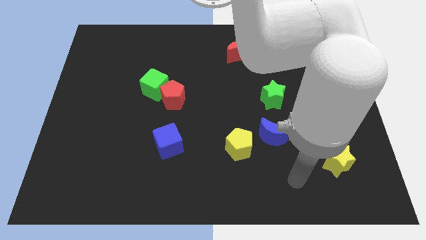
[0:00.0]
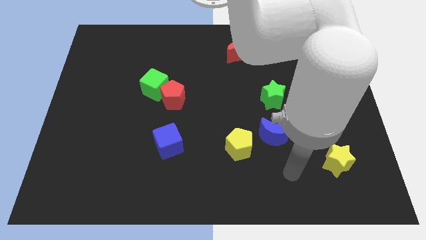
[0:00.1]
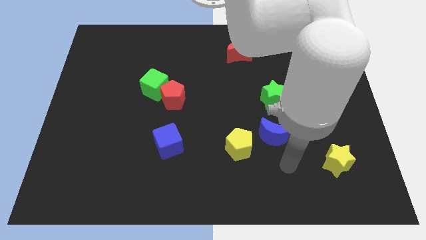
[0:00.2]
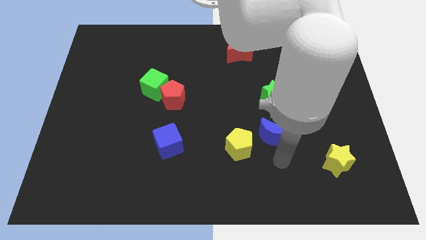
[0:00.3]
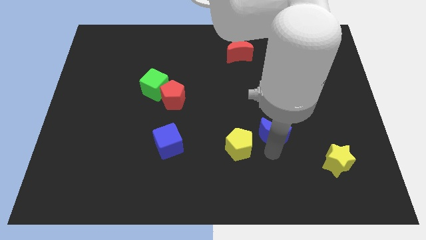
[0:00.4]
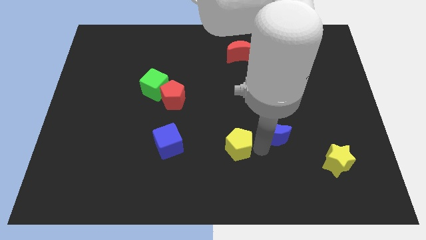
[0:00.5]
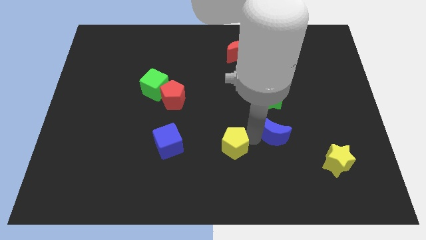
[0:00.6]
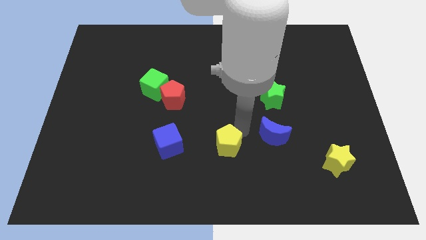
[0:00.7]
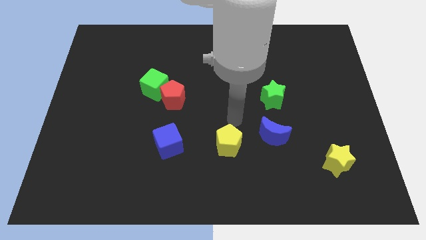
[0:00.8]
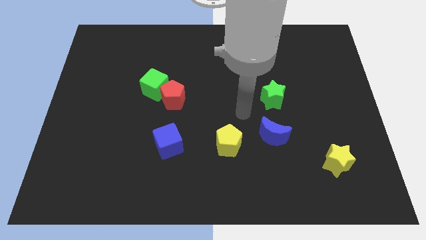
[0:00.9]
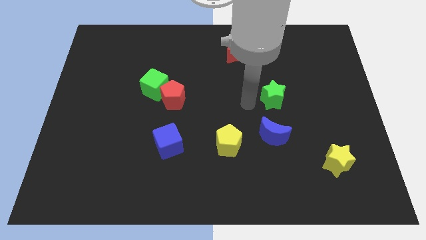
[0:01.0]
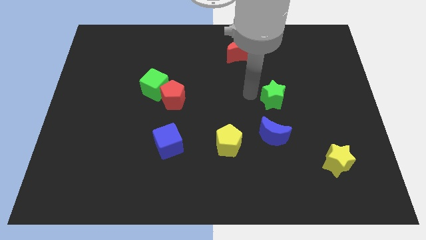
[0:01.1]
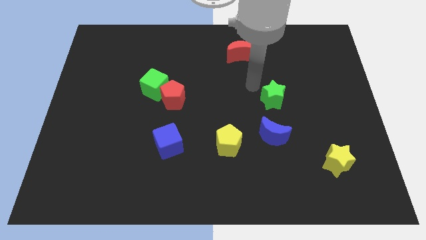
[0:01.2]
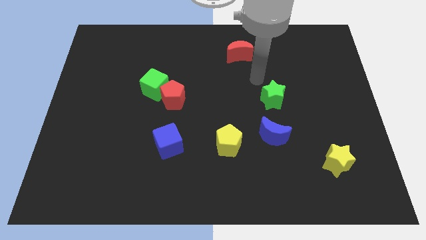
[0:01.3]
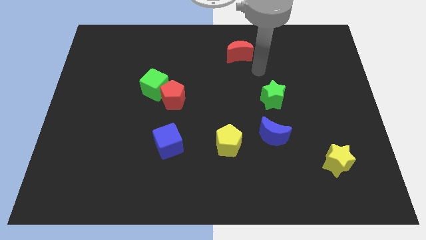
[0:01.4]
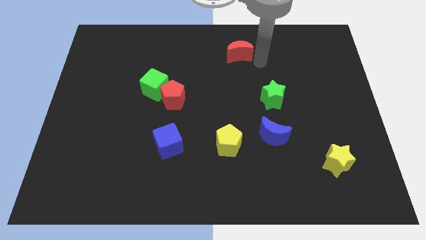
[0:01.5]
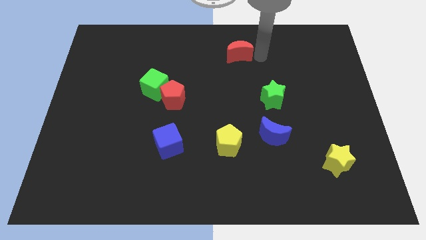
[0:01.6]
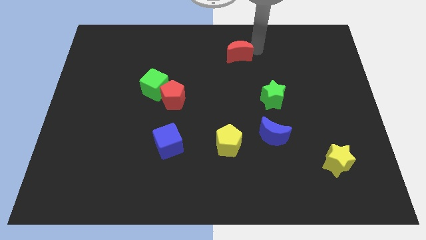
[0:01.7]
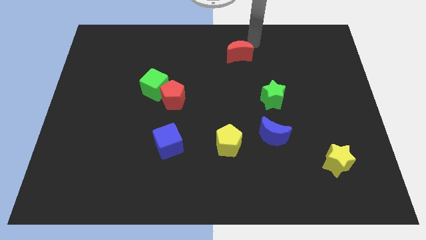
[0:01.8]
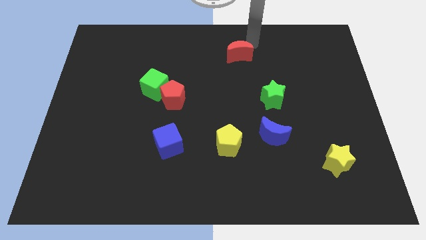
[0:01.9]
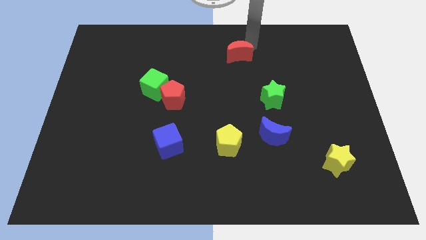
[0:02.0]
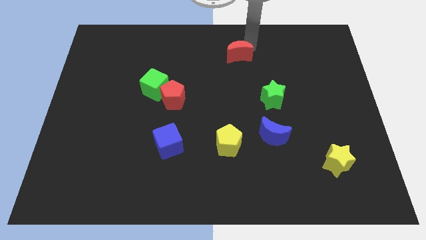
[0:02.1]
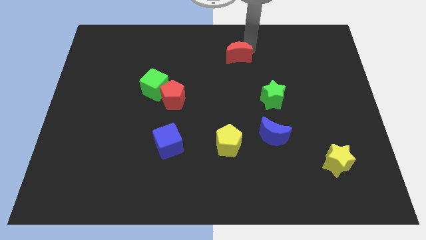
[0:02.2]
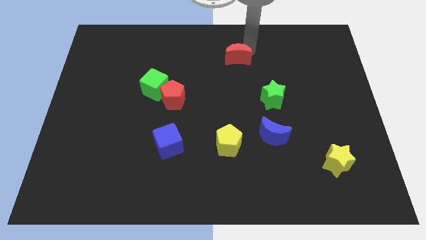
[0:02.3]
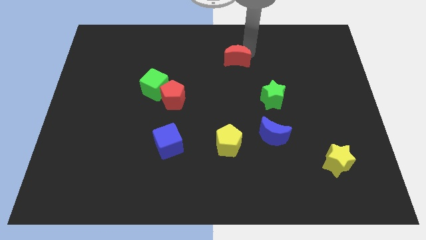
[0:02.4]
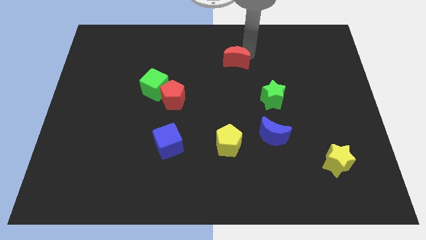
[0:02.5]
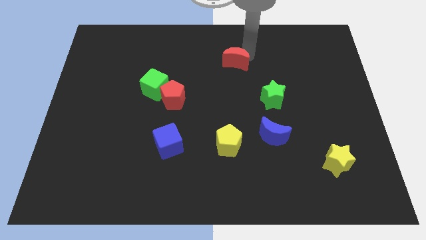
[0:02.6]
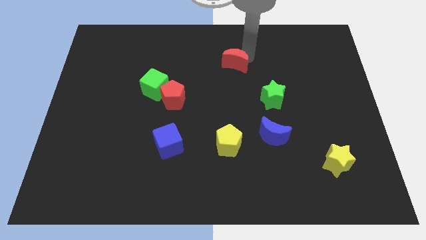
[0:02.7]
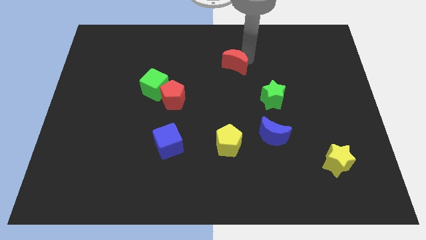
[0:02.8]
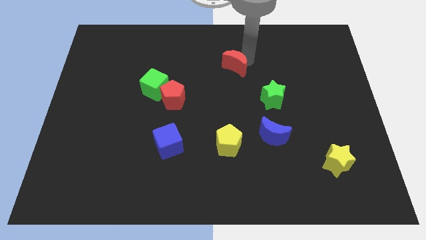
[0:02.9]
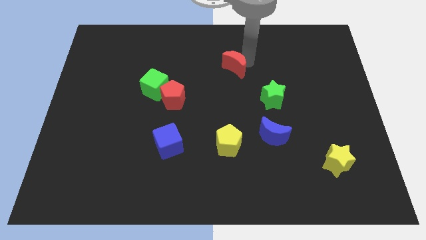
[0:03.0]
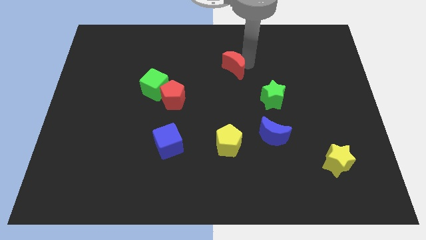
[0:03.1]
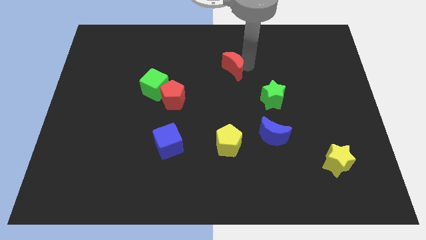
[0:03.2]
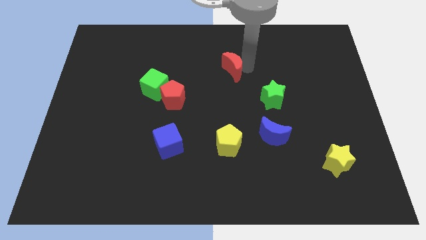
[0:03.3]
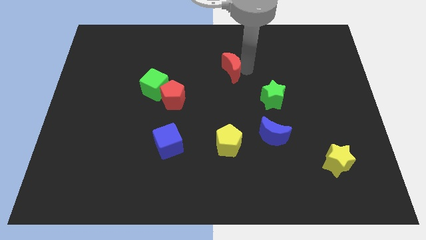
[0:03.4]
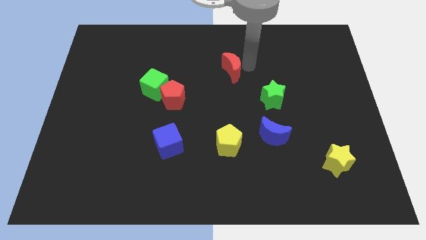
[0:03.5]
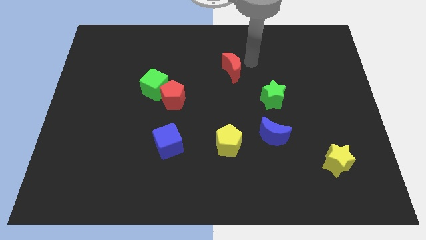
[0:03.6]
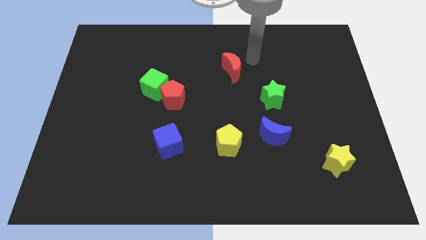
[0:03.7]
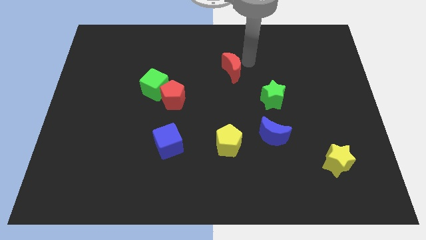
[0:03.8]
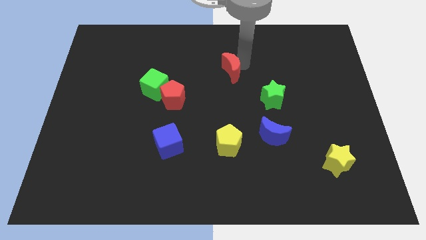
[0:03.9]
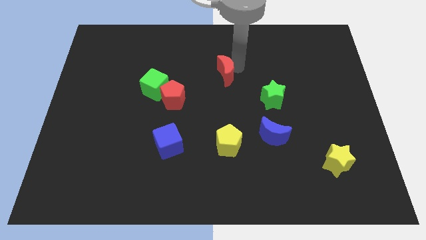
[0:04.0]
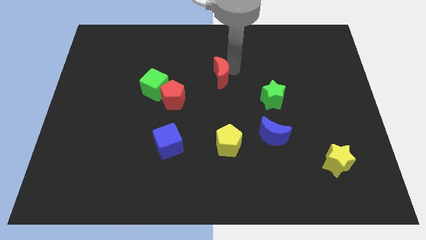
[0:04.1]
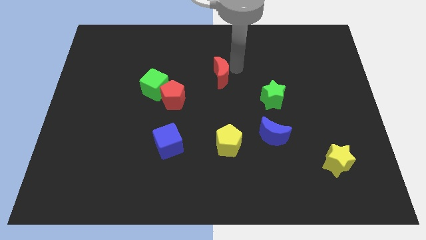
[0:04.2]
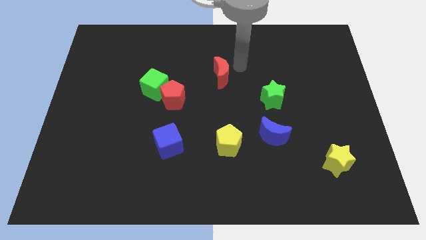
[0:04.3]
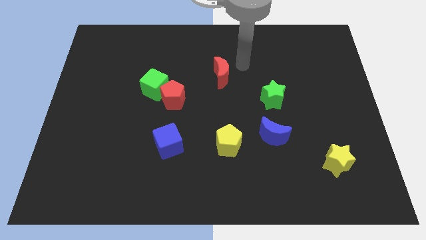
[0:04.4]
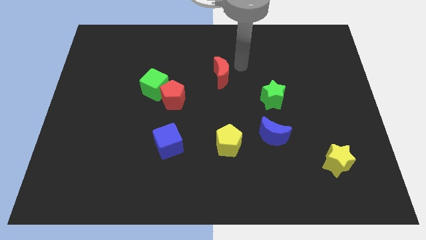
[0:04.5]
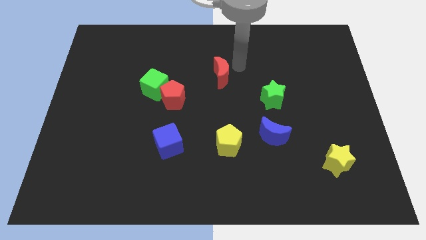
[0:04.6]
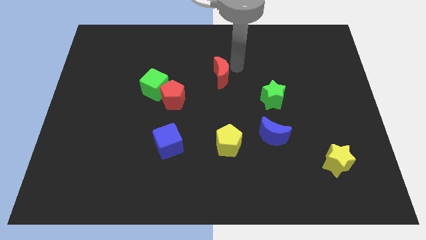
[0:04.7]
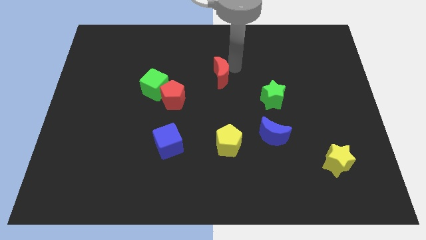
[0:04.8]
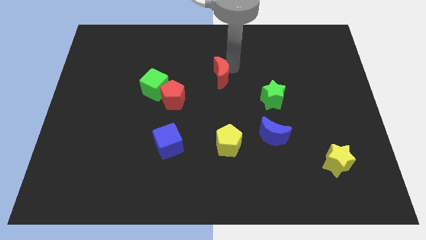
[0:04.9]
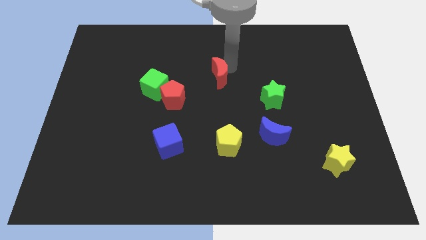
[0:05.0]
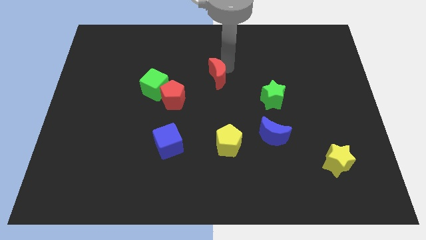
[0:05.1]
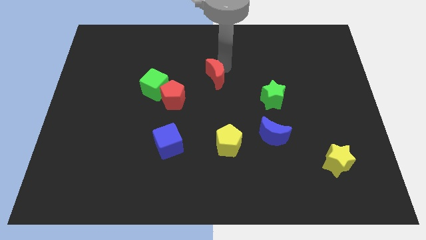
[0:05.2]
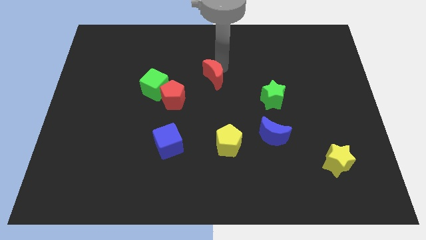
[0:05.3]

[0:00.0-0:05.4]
push the red moon to the right of the green cube

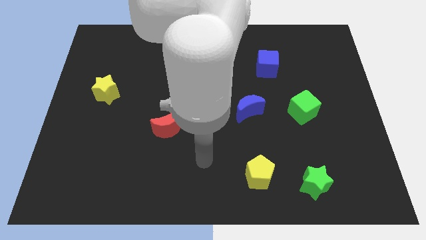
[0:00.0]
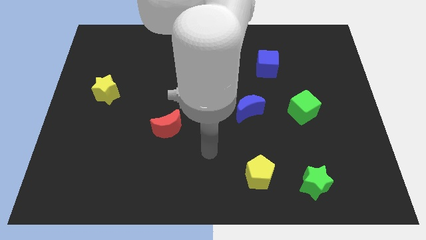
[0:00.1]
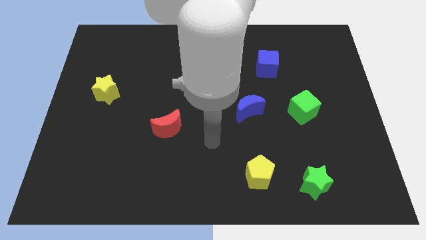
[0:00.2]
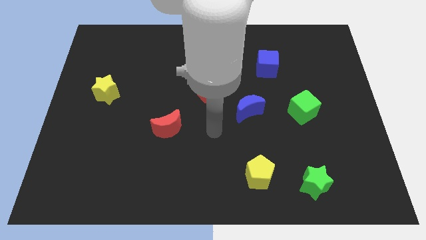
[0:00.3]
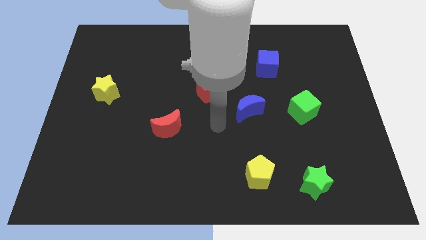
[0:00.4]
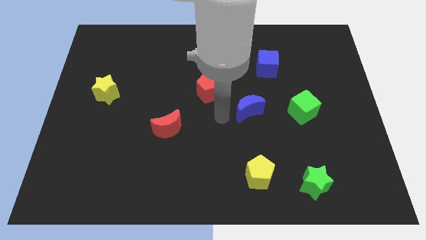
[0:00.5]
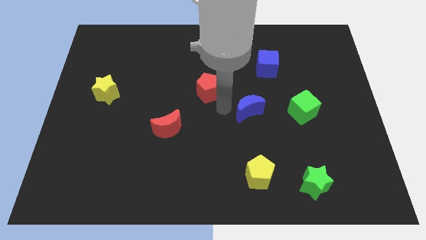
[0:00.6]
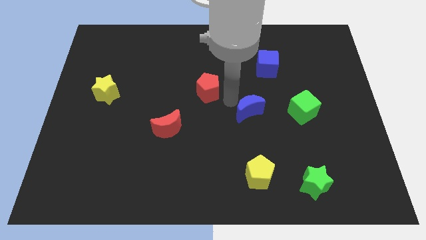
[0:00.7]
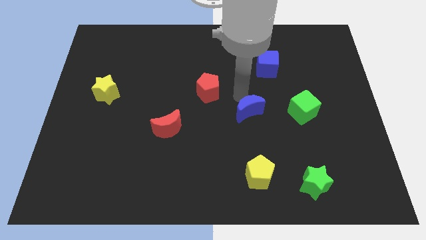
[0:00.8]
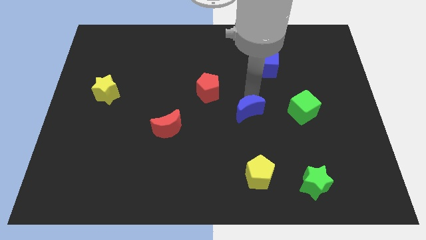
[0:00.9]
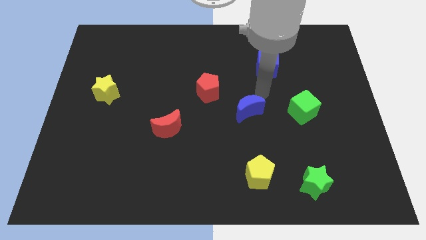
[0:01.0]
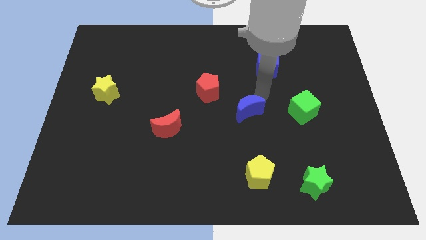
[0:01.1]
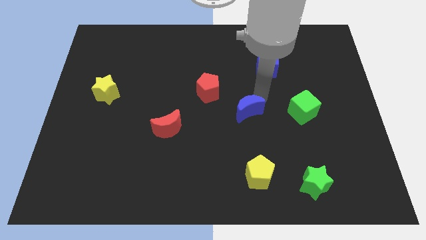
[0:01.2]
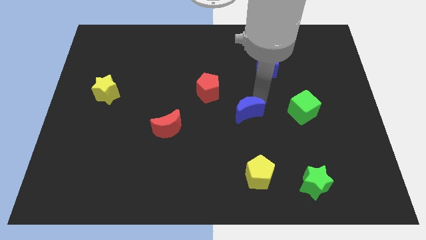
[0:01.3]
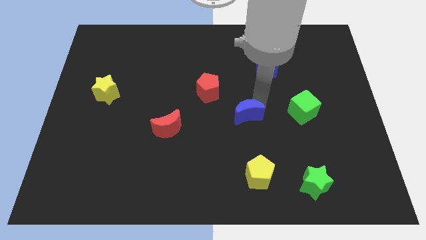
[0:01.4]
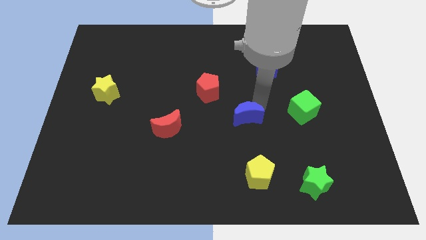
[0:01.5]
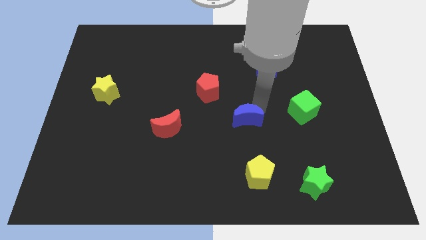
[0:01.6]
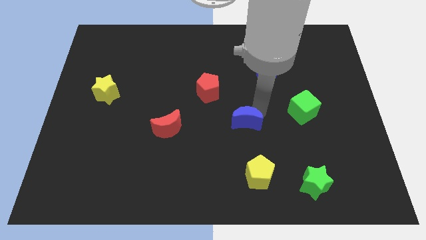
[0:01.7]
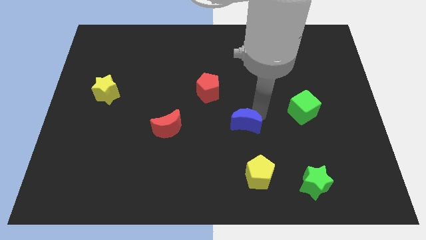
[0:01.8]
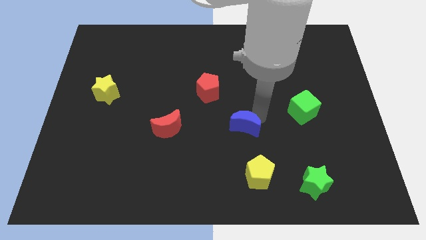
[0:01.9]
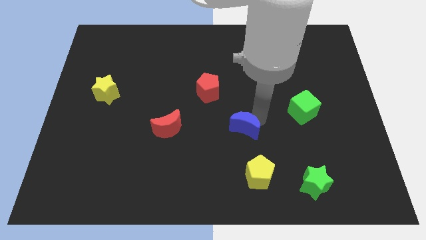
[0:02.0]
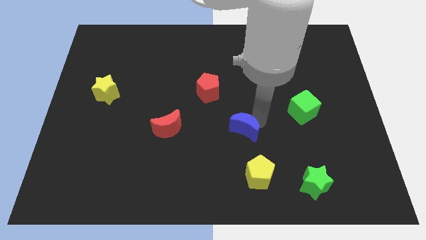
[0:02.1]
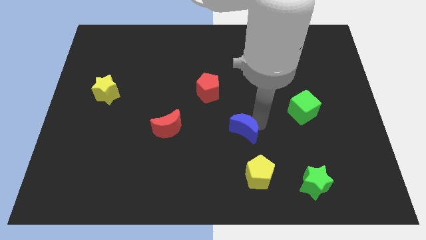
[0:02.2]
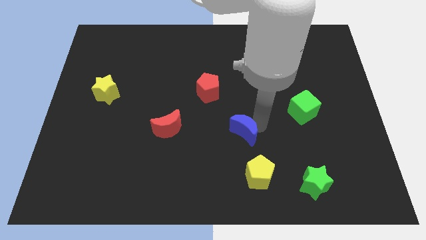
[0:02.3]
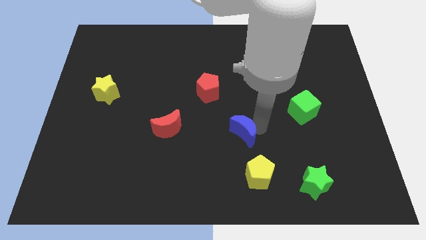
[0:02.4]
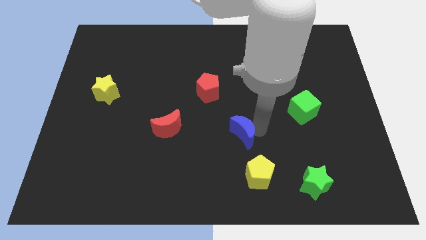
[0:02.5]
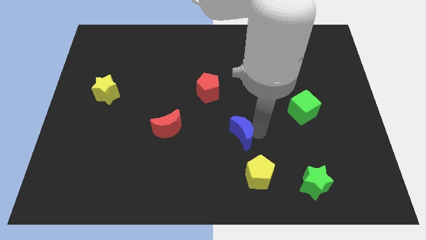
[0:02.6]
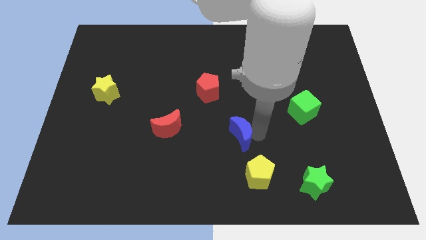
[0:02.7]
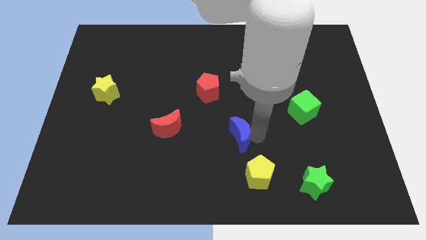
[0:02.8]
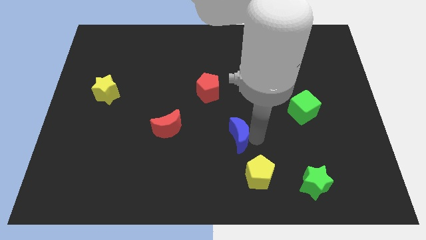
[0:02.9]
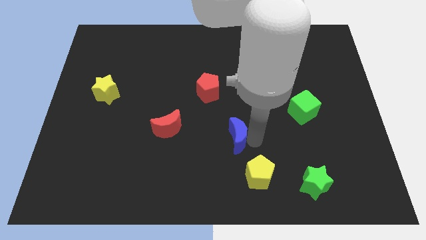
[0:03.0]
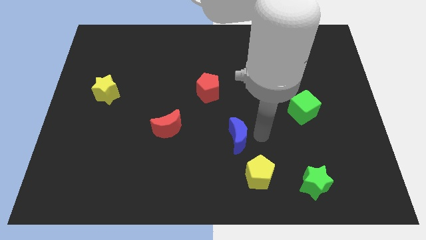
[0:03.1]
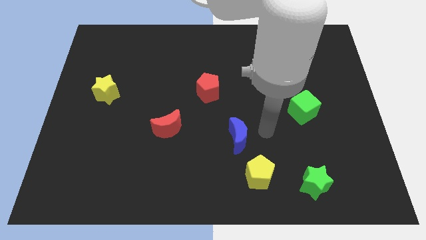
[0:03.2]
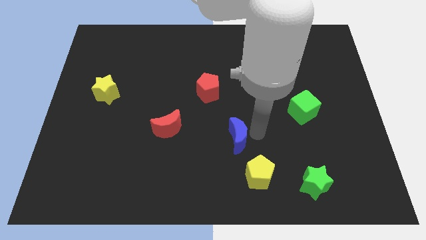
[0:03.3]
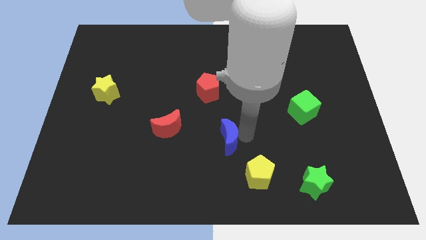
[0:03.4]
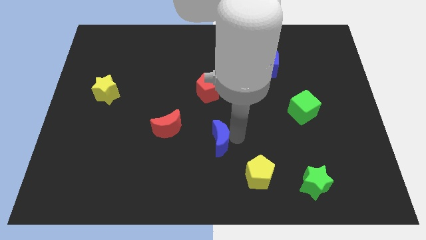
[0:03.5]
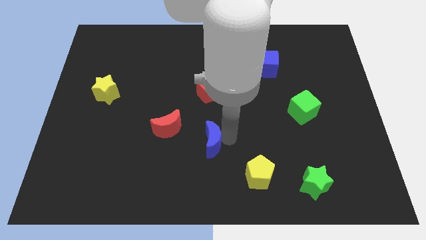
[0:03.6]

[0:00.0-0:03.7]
move the blue moon diagonally down and to the right of the red moon
